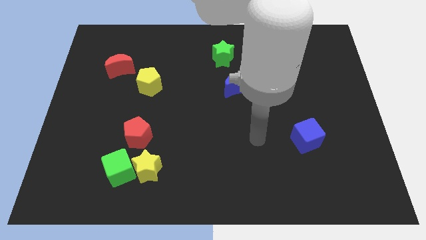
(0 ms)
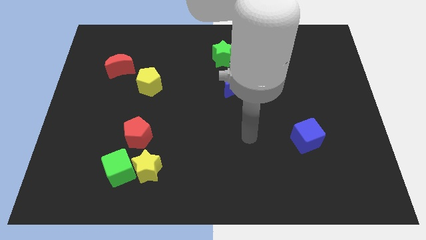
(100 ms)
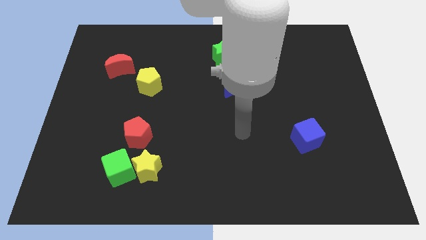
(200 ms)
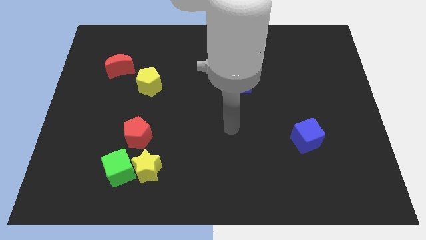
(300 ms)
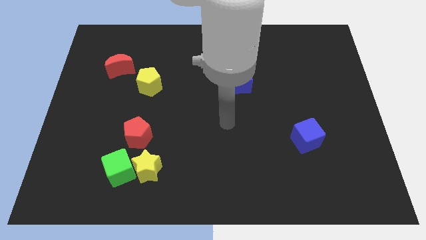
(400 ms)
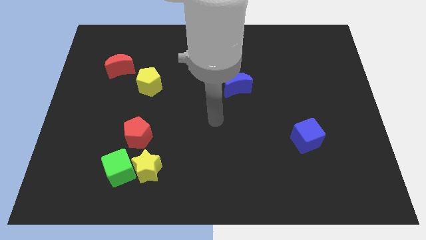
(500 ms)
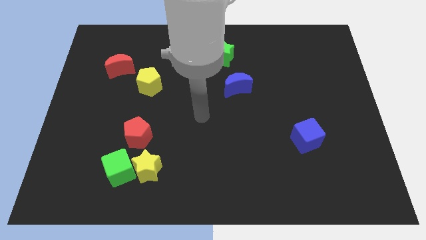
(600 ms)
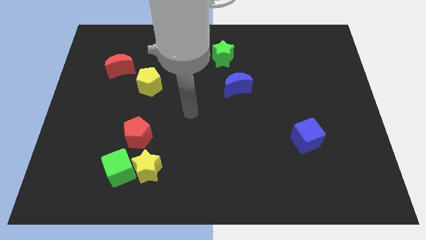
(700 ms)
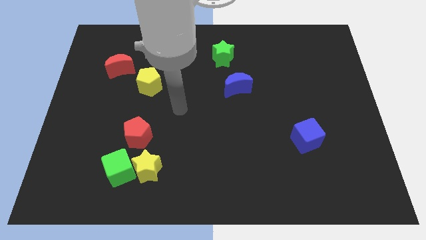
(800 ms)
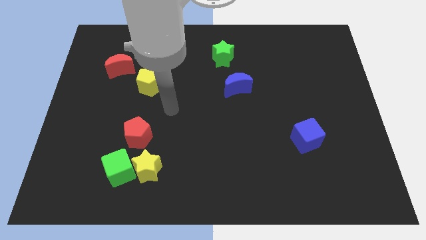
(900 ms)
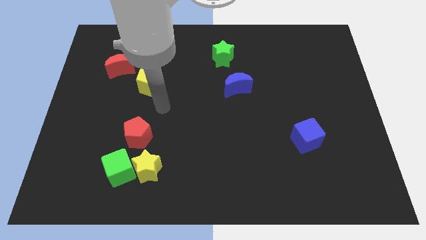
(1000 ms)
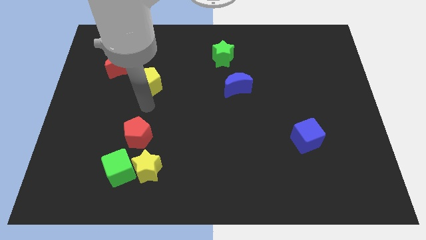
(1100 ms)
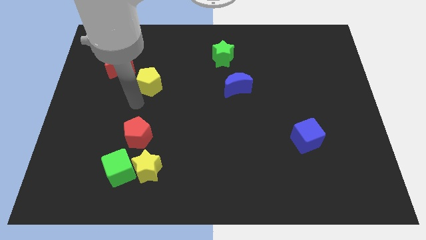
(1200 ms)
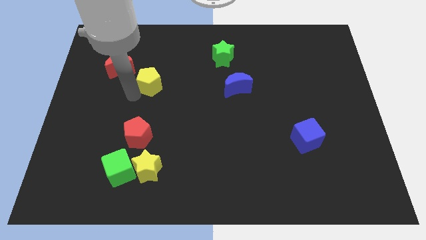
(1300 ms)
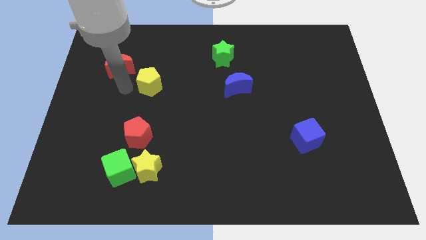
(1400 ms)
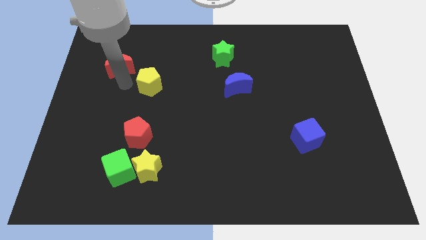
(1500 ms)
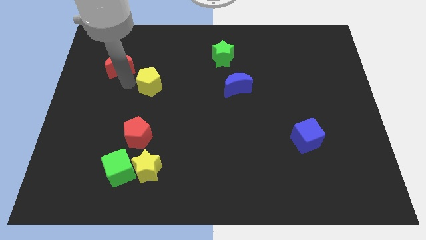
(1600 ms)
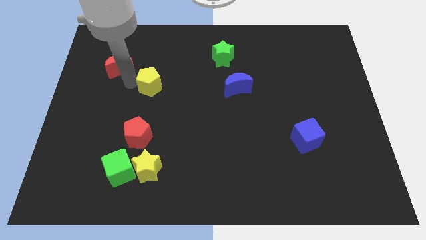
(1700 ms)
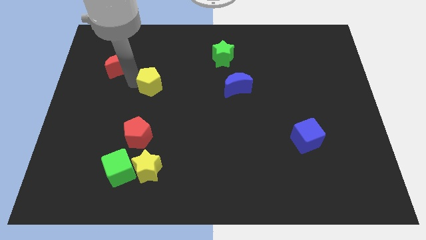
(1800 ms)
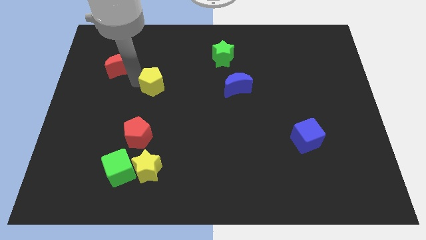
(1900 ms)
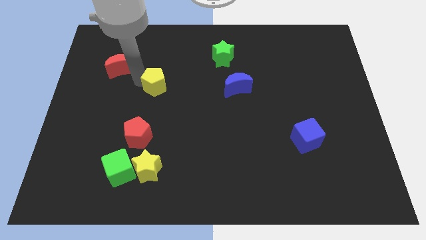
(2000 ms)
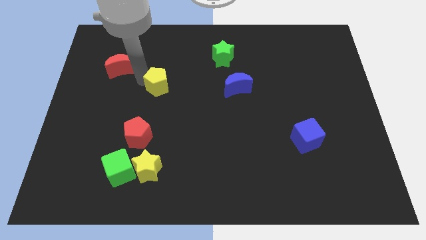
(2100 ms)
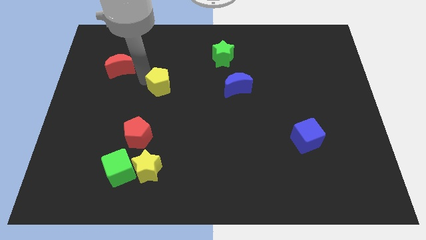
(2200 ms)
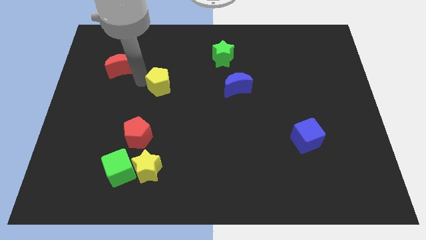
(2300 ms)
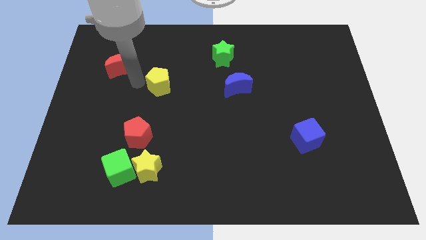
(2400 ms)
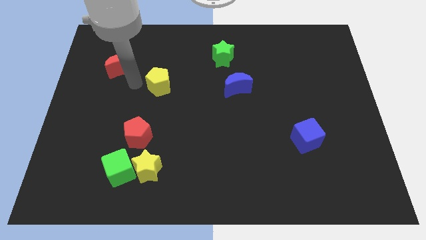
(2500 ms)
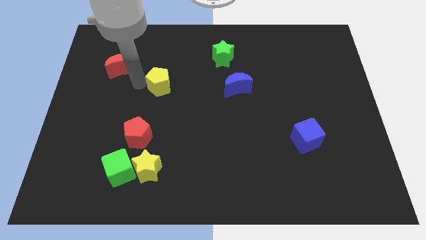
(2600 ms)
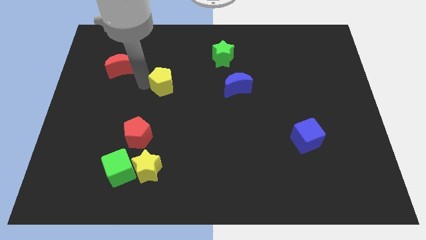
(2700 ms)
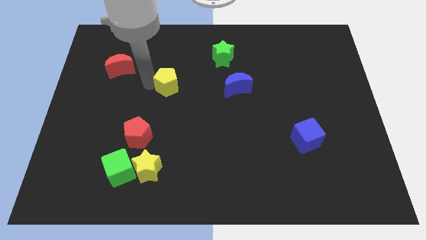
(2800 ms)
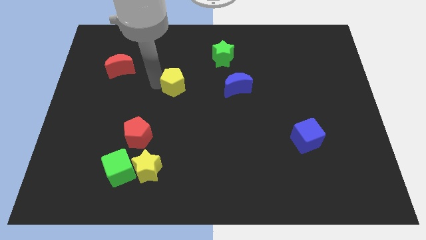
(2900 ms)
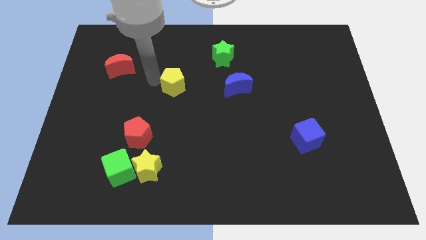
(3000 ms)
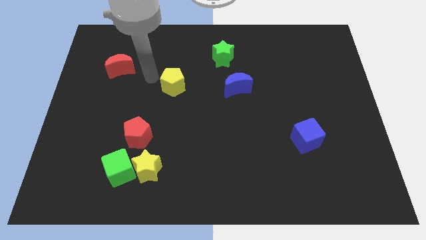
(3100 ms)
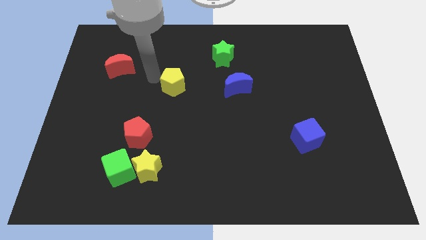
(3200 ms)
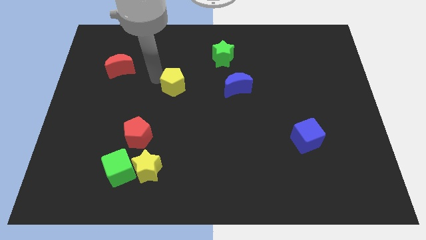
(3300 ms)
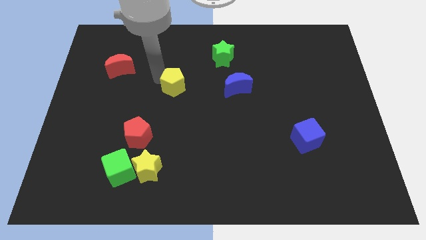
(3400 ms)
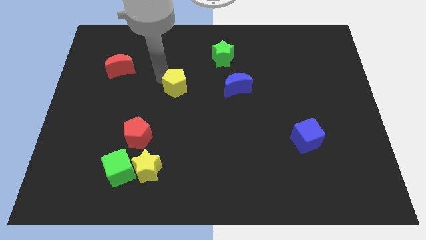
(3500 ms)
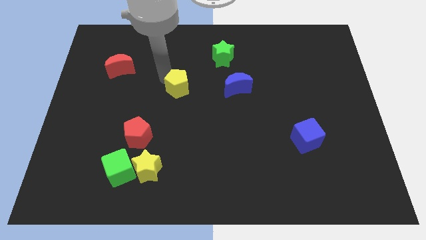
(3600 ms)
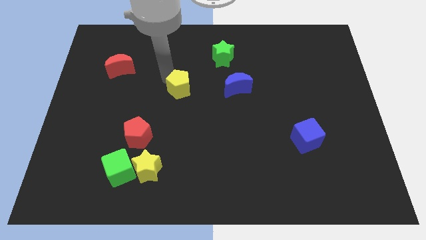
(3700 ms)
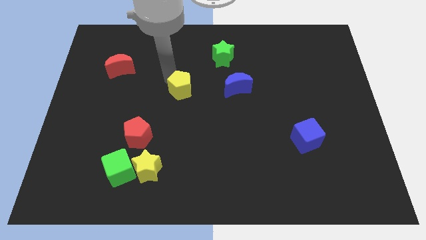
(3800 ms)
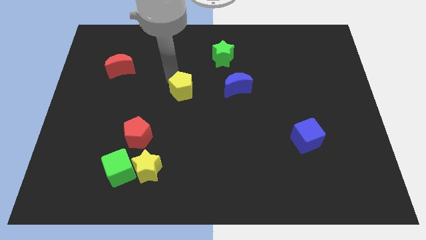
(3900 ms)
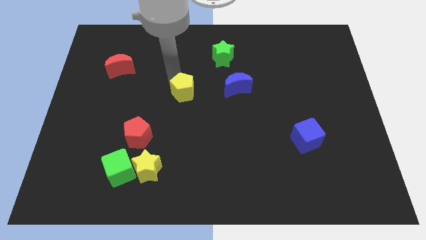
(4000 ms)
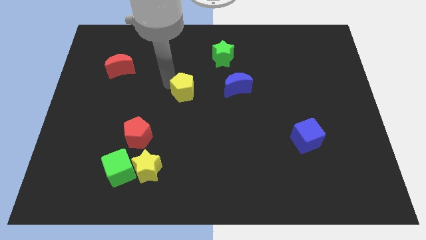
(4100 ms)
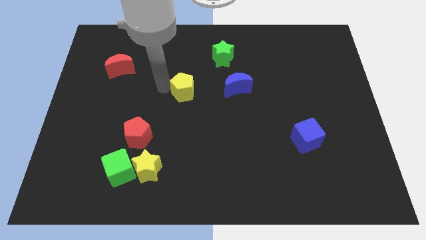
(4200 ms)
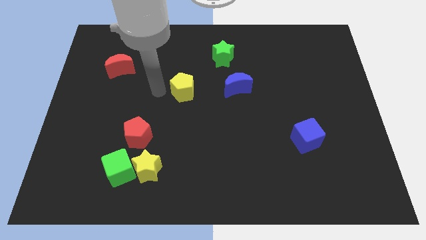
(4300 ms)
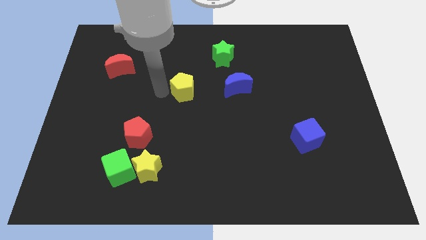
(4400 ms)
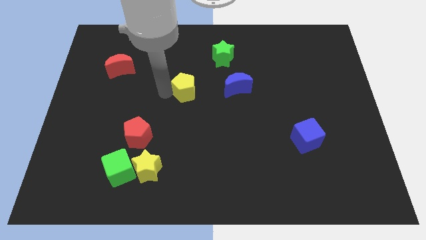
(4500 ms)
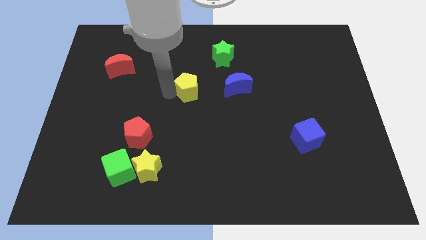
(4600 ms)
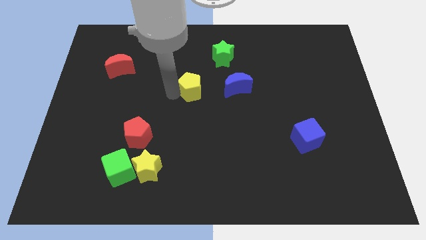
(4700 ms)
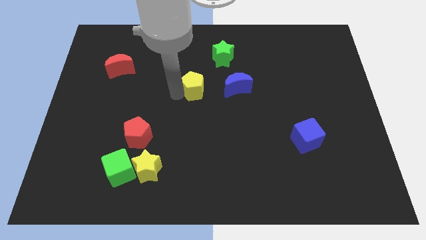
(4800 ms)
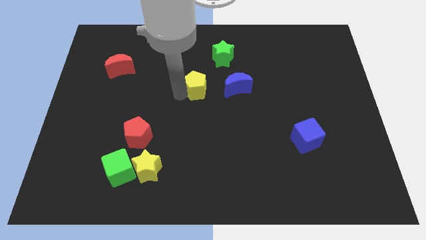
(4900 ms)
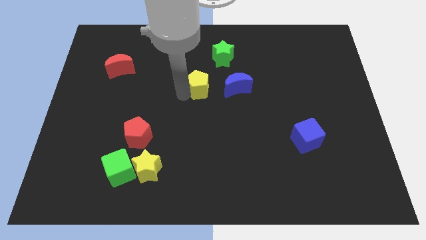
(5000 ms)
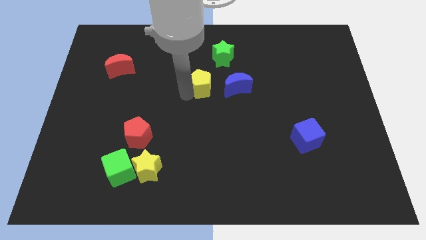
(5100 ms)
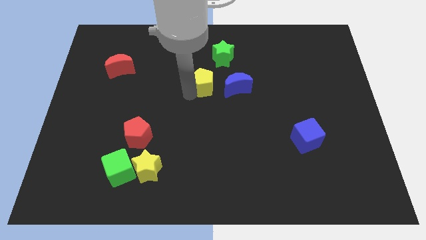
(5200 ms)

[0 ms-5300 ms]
move the yellow pentagon to the bottom side of the green star

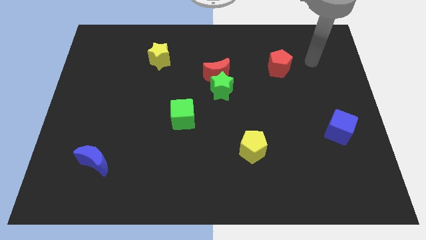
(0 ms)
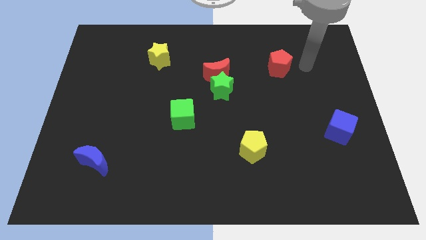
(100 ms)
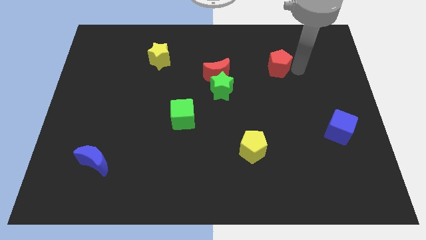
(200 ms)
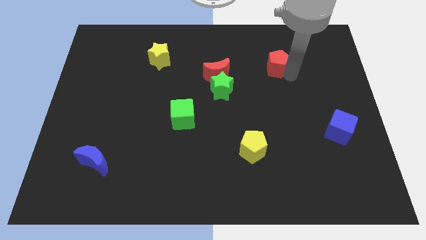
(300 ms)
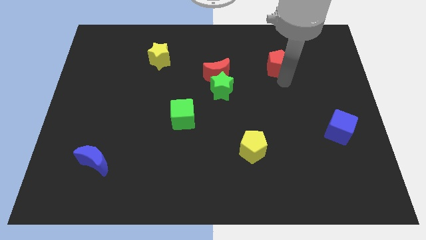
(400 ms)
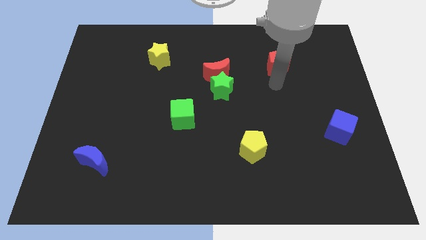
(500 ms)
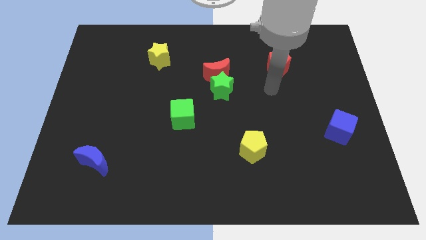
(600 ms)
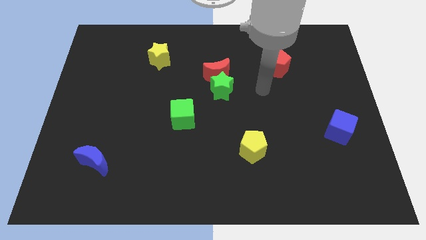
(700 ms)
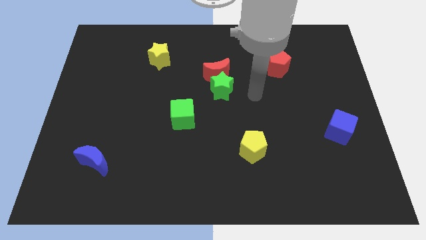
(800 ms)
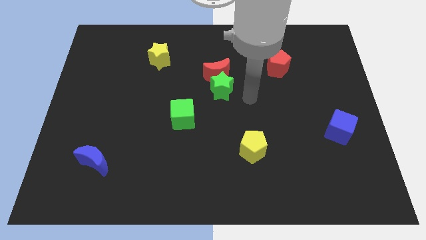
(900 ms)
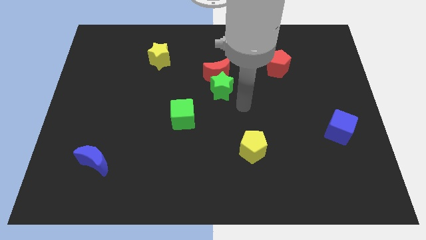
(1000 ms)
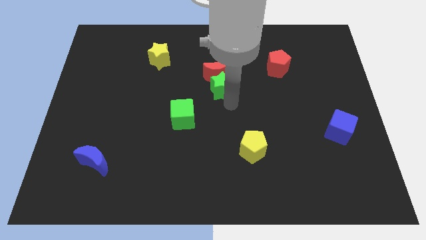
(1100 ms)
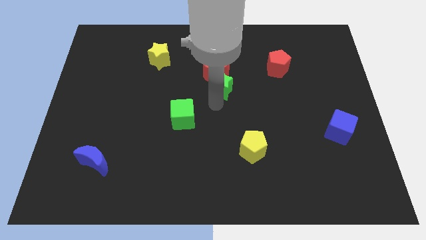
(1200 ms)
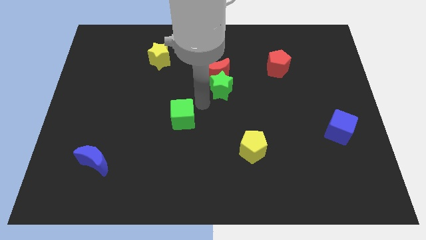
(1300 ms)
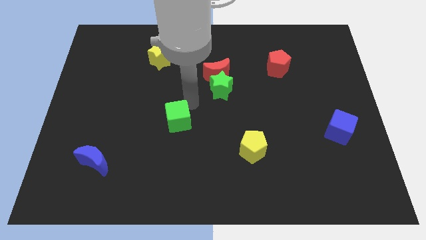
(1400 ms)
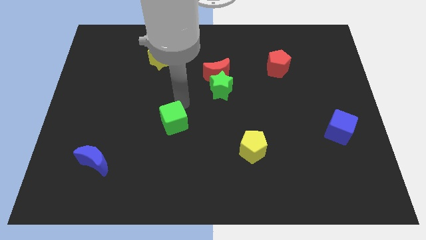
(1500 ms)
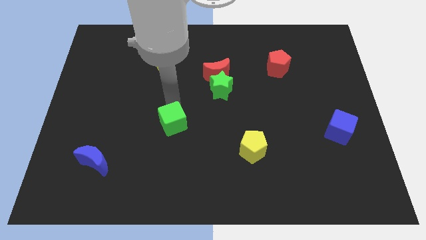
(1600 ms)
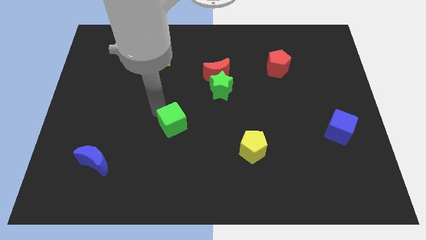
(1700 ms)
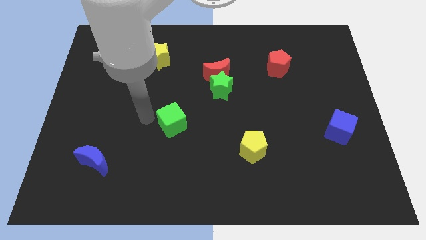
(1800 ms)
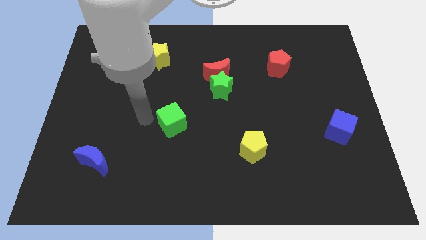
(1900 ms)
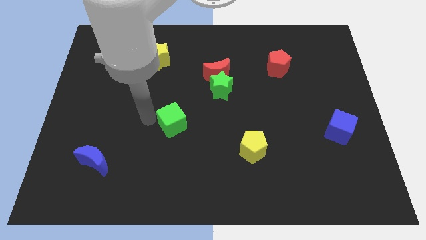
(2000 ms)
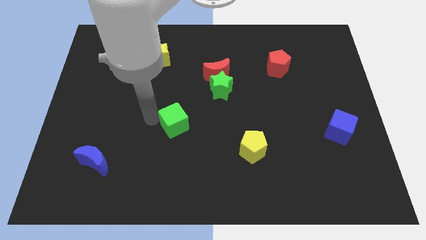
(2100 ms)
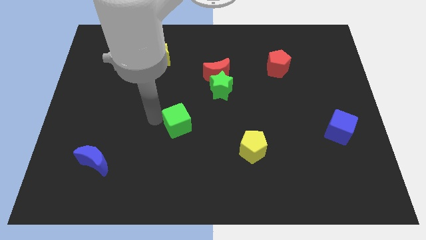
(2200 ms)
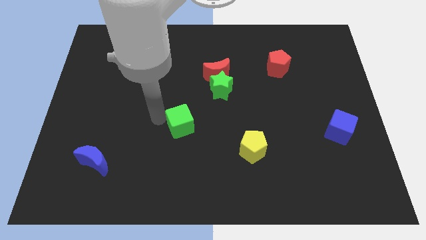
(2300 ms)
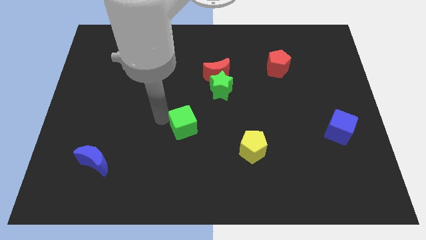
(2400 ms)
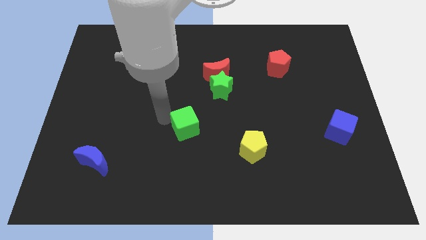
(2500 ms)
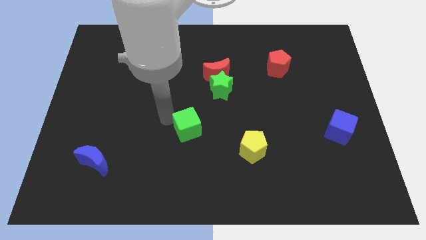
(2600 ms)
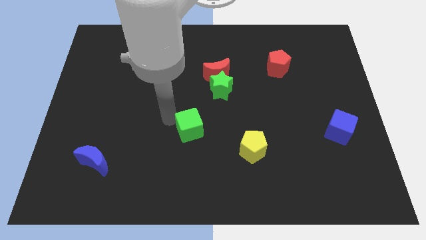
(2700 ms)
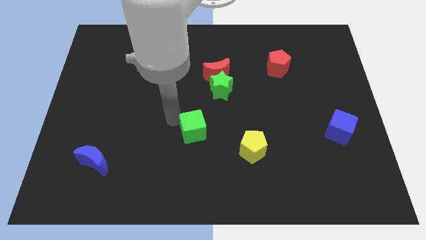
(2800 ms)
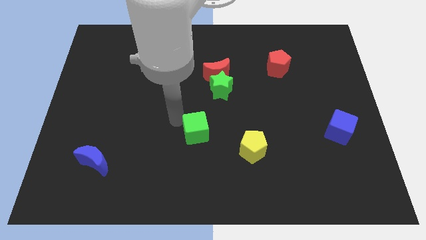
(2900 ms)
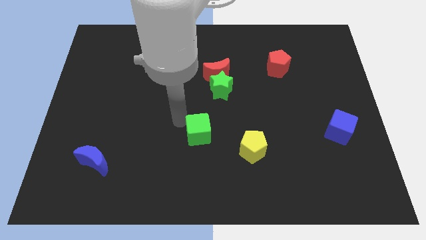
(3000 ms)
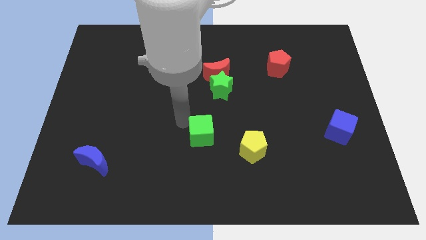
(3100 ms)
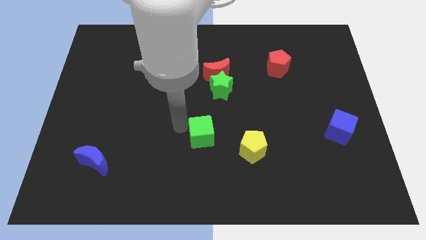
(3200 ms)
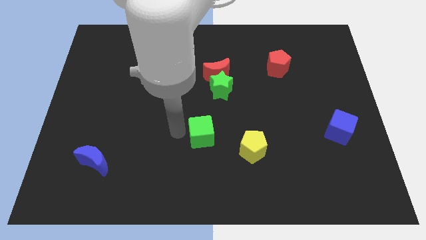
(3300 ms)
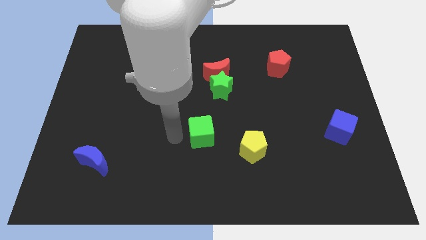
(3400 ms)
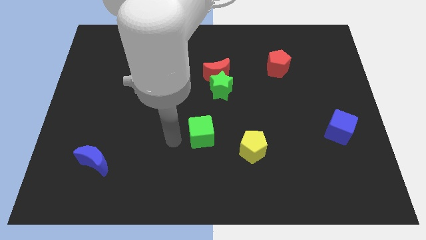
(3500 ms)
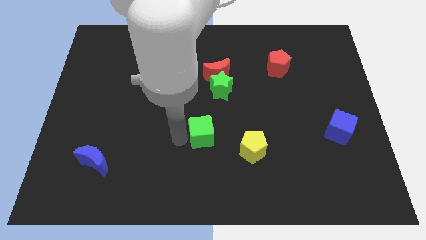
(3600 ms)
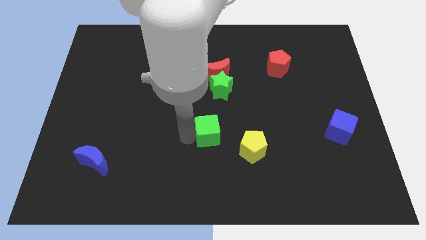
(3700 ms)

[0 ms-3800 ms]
move the green cube diagonally up and to the left of the yellow pentagon
